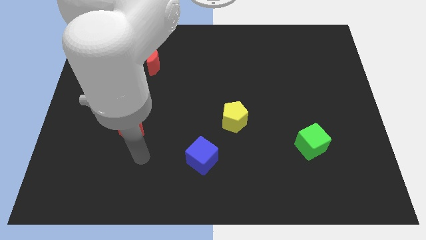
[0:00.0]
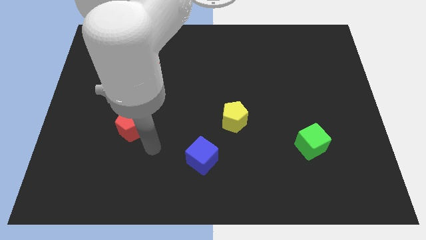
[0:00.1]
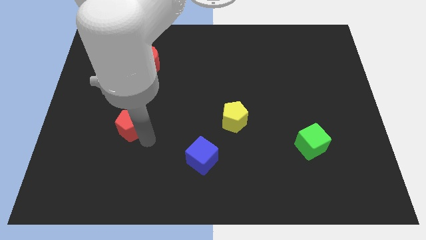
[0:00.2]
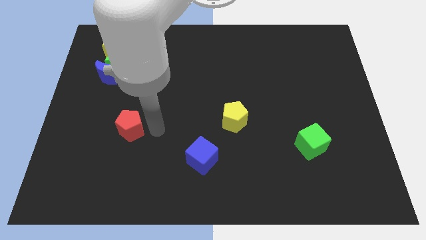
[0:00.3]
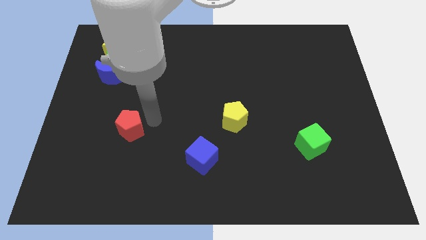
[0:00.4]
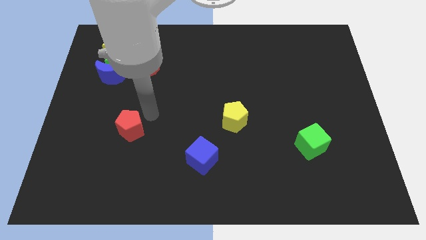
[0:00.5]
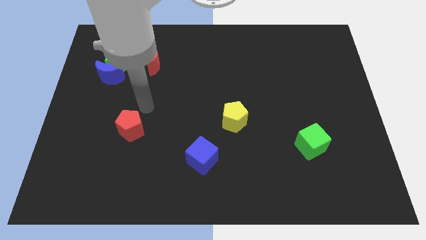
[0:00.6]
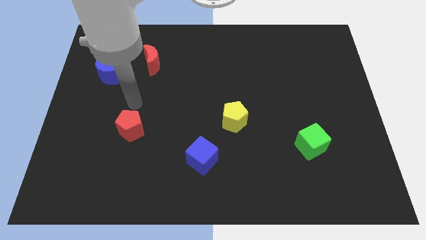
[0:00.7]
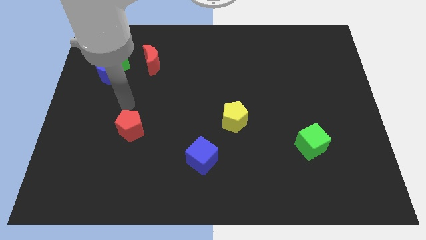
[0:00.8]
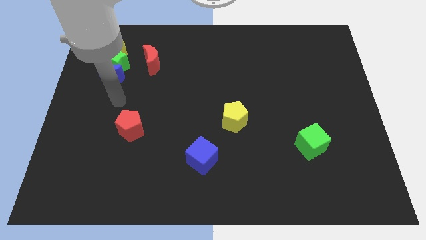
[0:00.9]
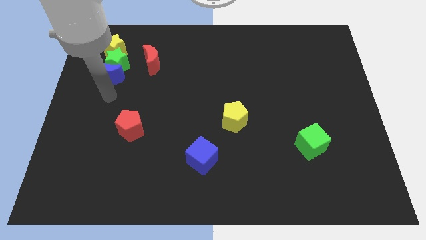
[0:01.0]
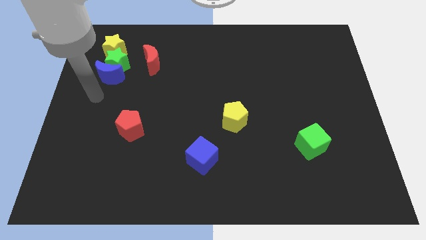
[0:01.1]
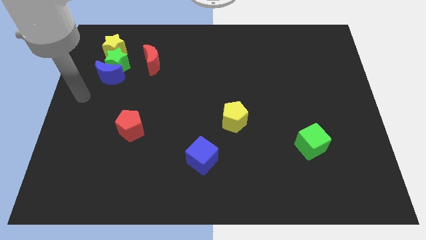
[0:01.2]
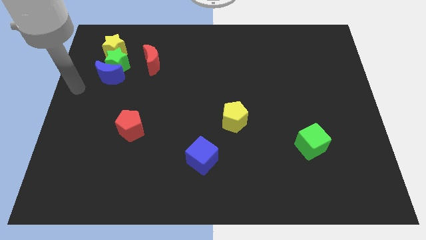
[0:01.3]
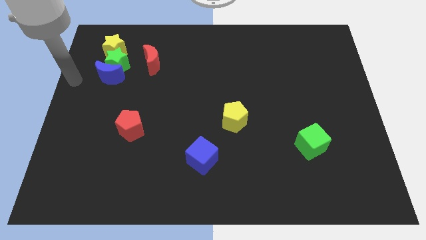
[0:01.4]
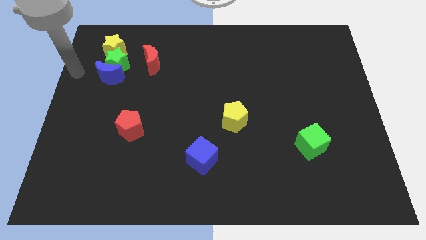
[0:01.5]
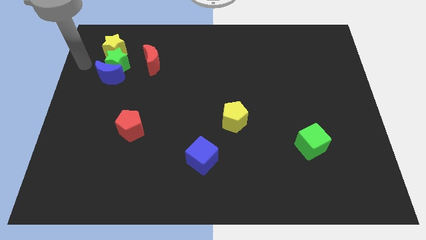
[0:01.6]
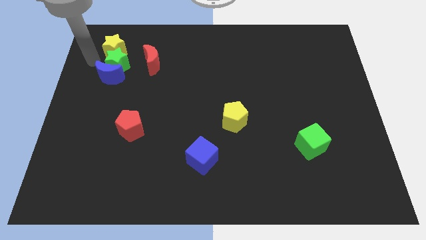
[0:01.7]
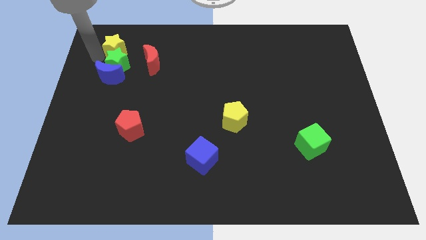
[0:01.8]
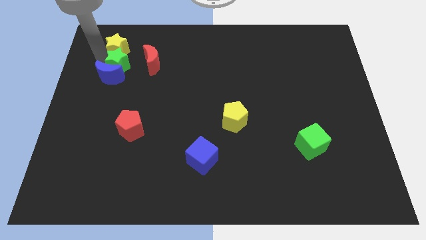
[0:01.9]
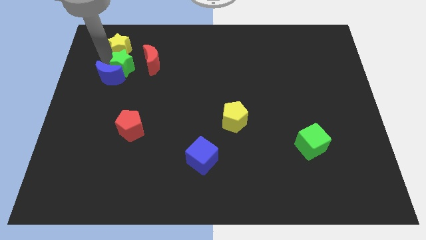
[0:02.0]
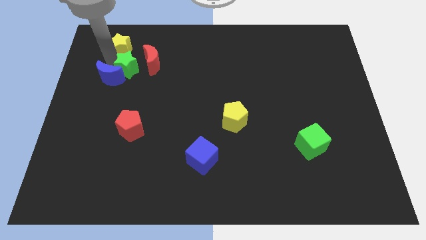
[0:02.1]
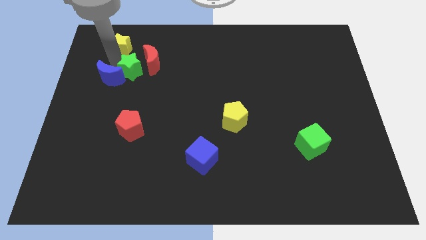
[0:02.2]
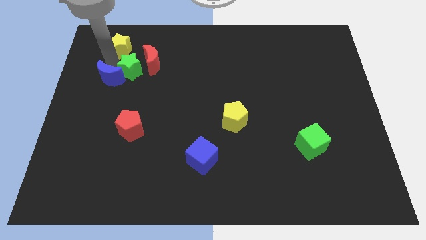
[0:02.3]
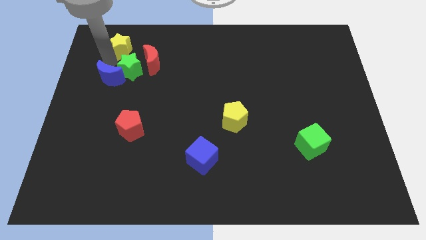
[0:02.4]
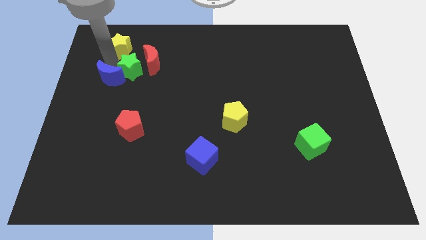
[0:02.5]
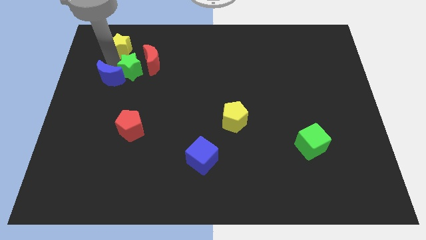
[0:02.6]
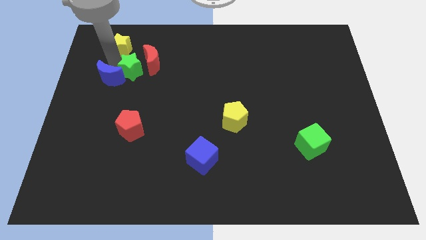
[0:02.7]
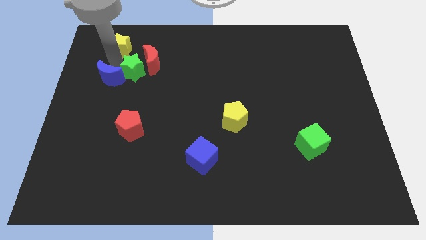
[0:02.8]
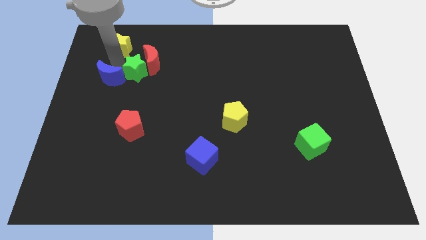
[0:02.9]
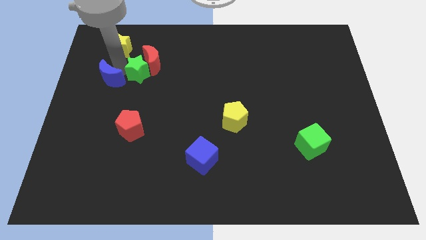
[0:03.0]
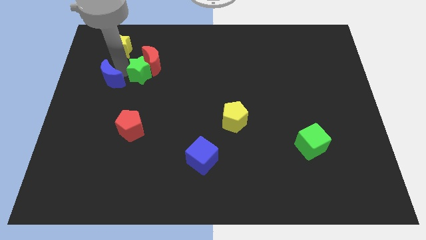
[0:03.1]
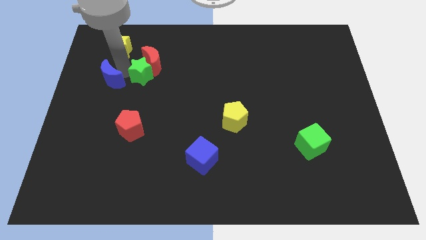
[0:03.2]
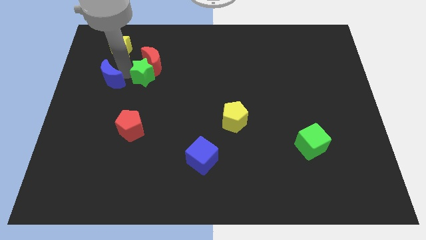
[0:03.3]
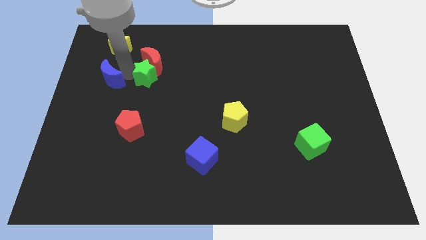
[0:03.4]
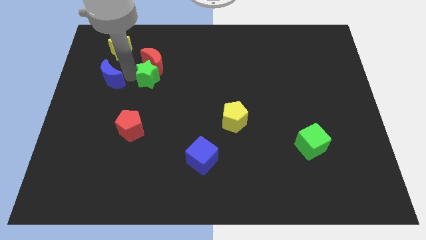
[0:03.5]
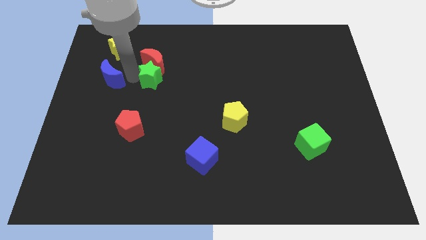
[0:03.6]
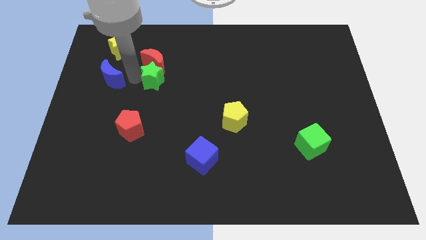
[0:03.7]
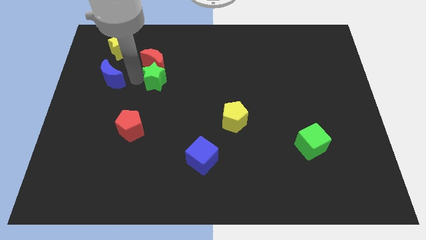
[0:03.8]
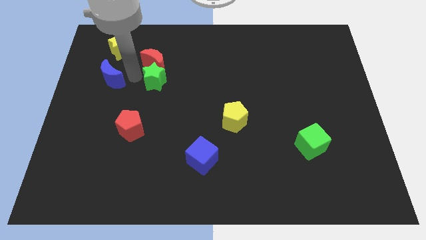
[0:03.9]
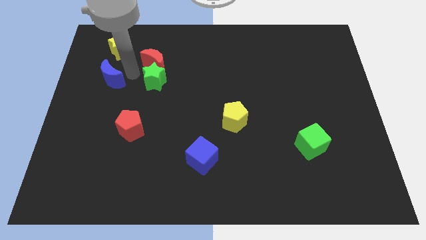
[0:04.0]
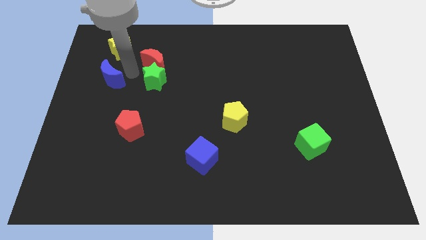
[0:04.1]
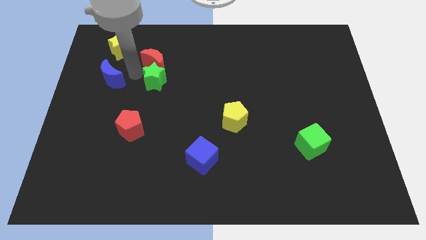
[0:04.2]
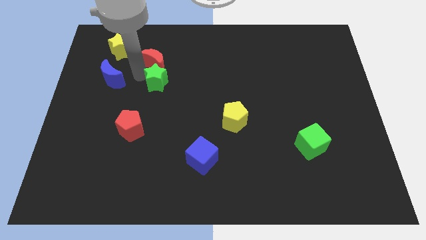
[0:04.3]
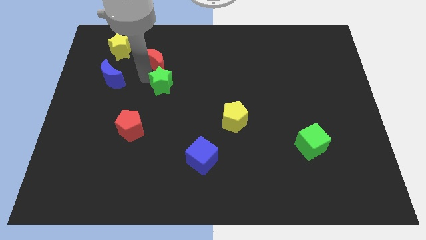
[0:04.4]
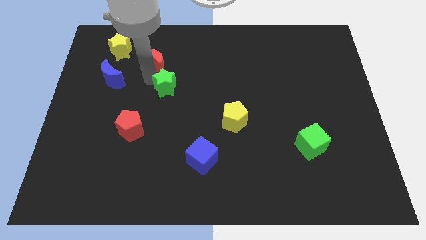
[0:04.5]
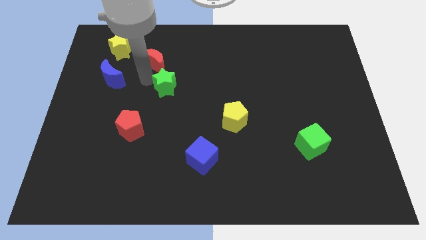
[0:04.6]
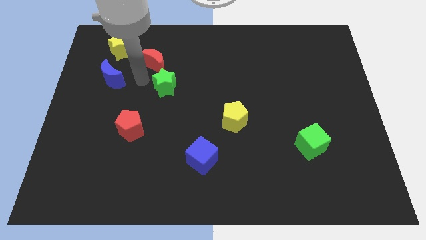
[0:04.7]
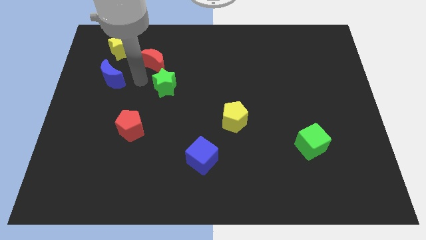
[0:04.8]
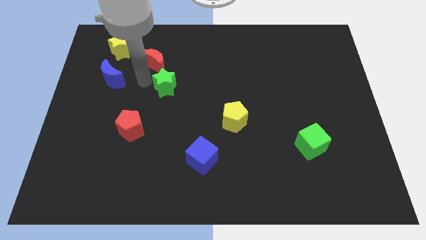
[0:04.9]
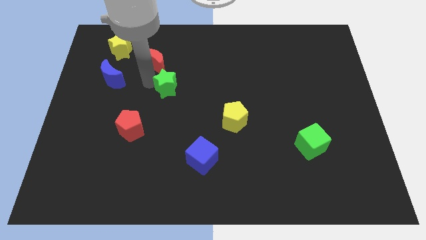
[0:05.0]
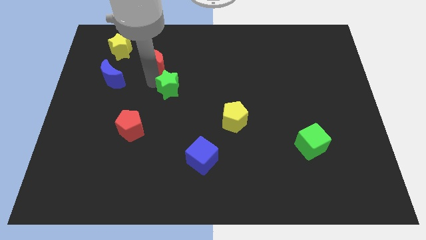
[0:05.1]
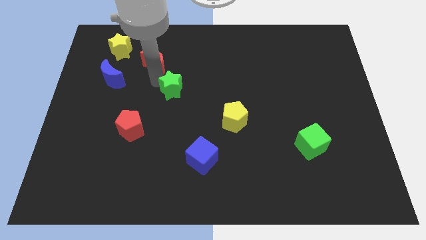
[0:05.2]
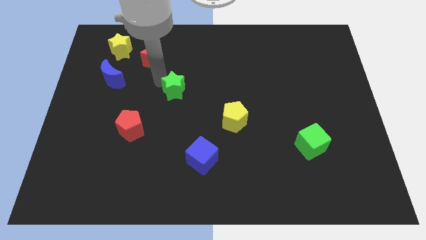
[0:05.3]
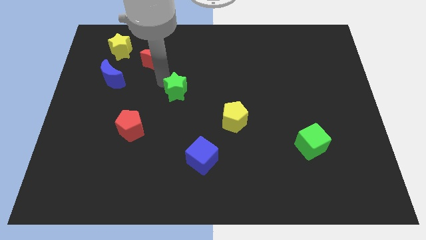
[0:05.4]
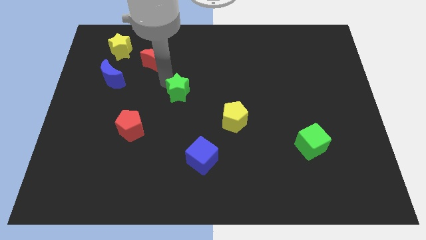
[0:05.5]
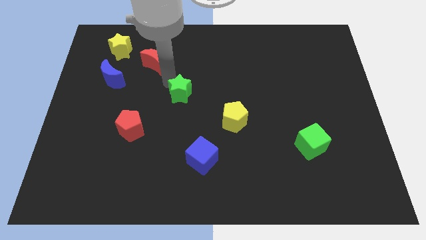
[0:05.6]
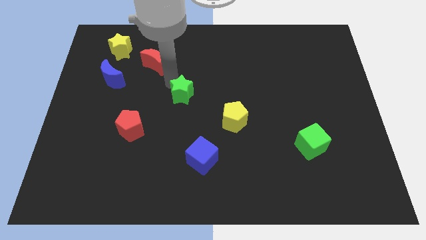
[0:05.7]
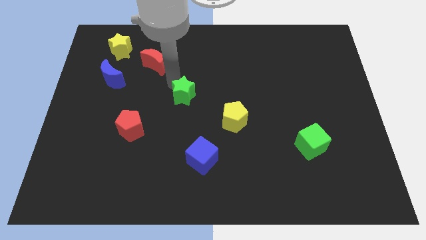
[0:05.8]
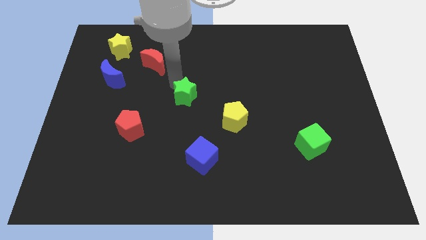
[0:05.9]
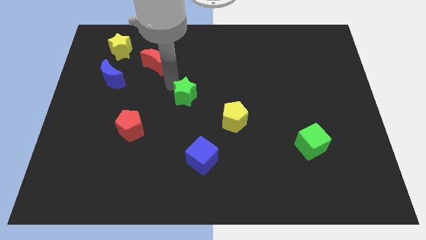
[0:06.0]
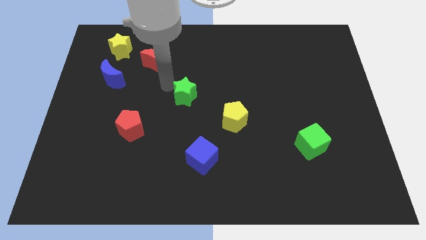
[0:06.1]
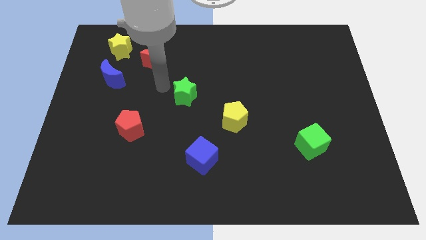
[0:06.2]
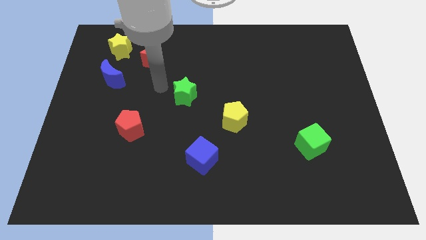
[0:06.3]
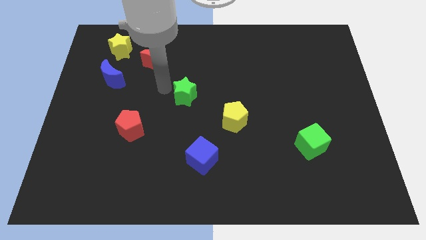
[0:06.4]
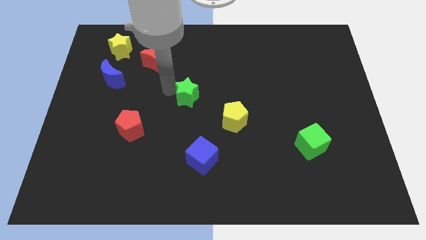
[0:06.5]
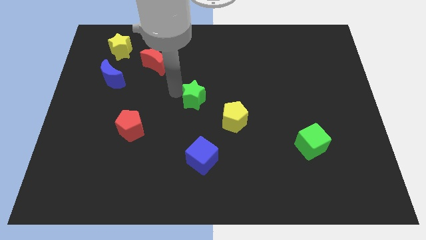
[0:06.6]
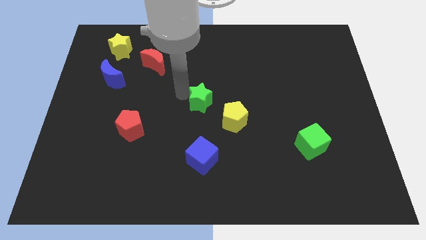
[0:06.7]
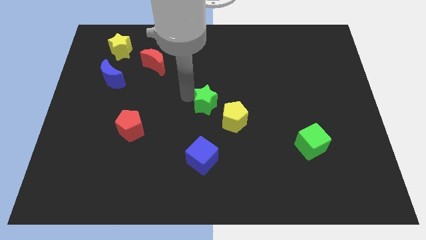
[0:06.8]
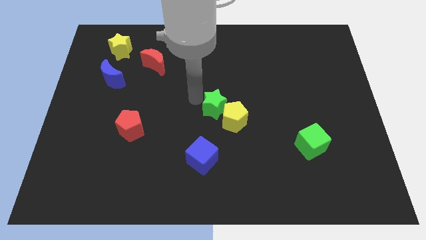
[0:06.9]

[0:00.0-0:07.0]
put the green star next to the yellow pentagon
